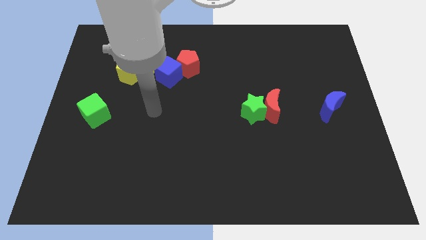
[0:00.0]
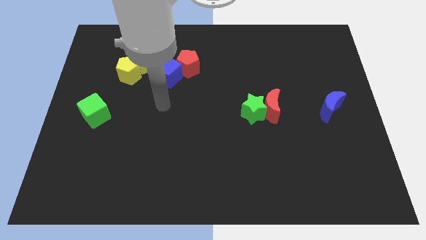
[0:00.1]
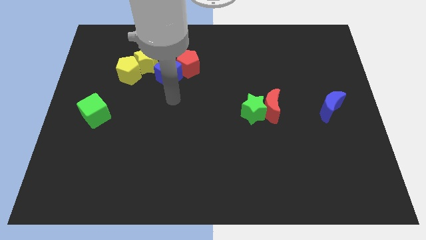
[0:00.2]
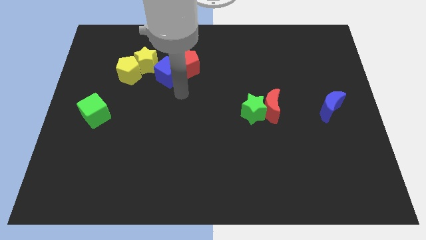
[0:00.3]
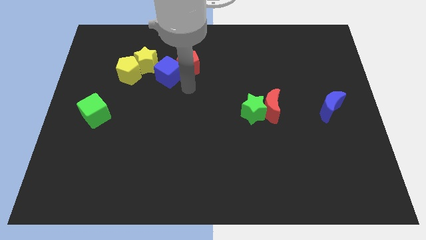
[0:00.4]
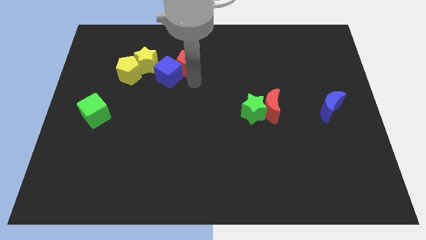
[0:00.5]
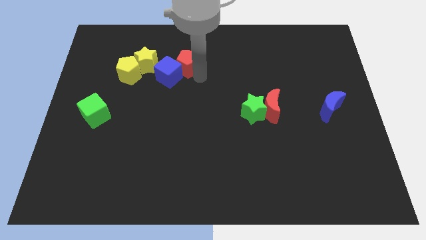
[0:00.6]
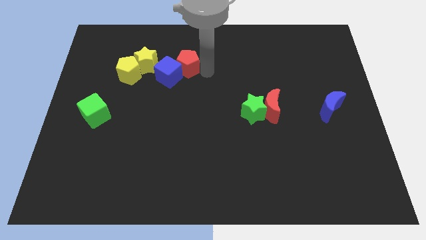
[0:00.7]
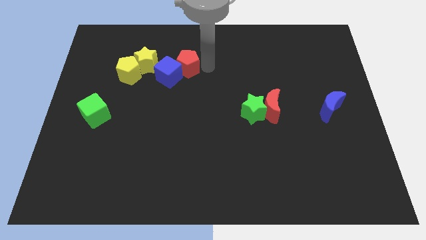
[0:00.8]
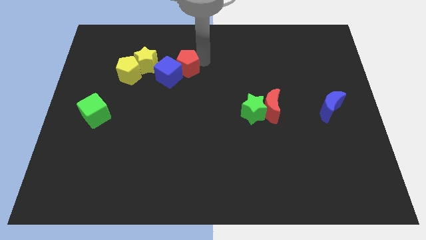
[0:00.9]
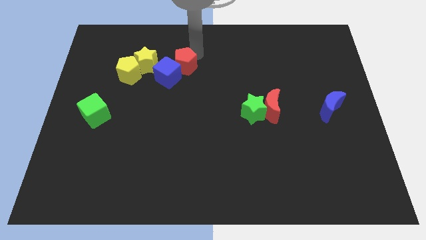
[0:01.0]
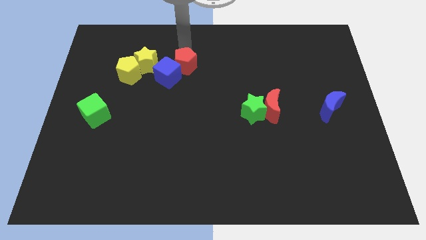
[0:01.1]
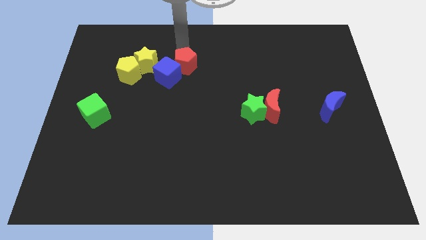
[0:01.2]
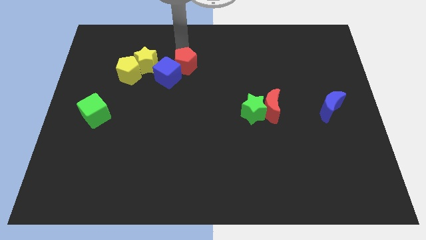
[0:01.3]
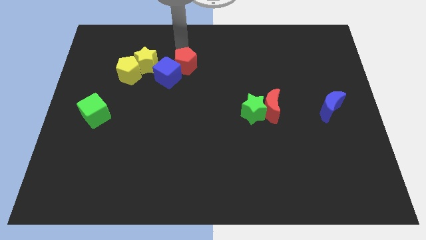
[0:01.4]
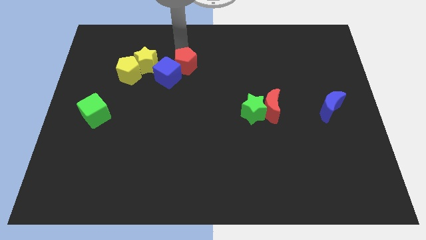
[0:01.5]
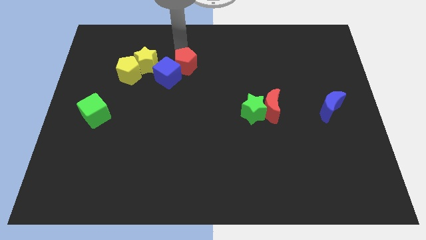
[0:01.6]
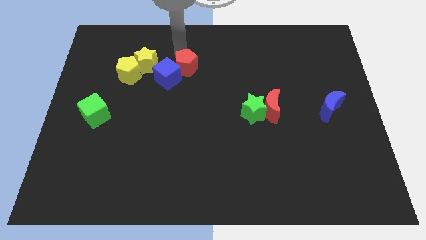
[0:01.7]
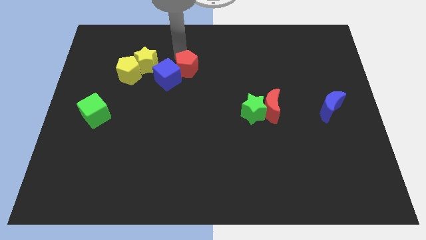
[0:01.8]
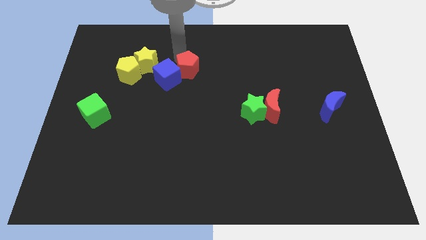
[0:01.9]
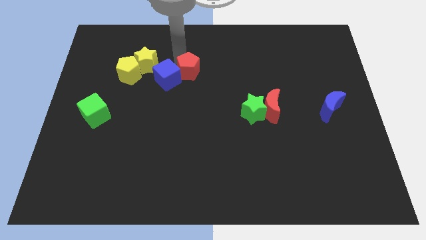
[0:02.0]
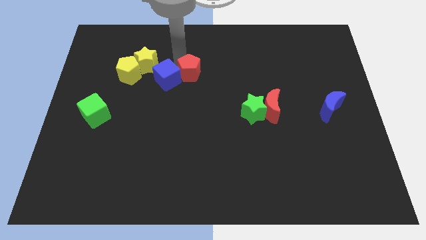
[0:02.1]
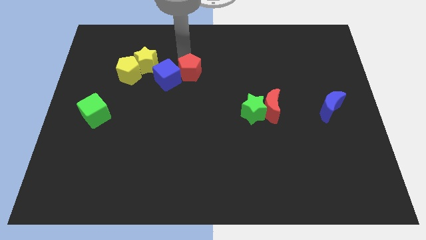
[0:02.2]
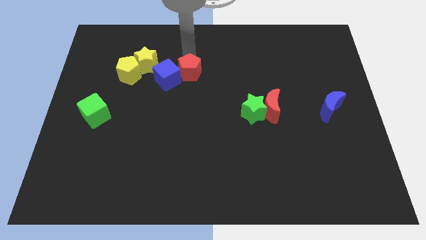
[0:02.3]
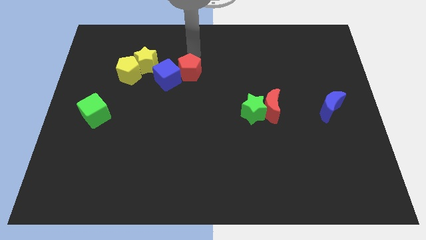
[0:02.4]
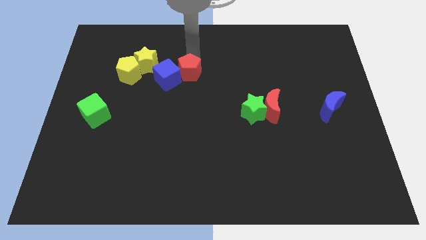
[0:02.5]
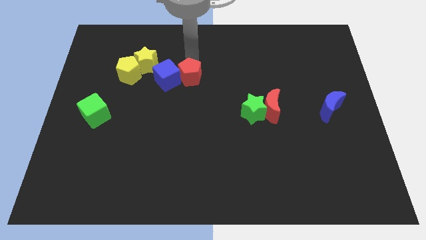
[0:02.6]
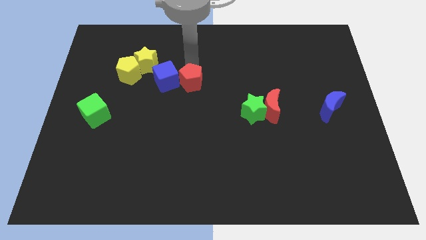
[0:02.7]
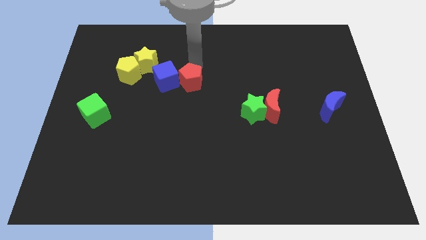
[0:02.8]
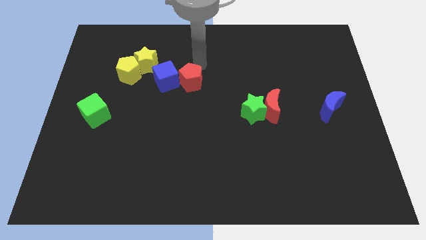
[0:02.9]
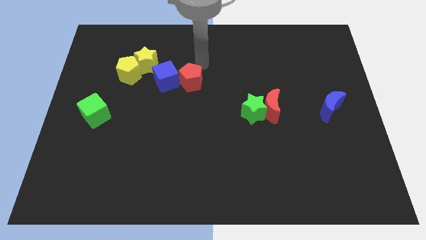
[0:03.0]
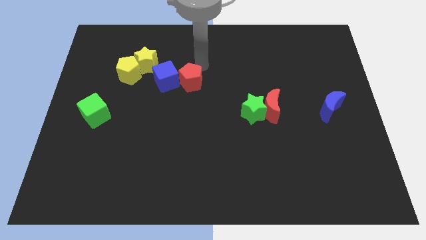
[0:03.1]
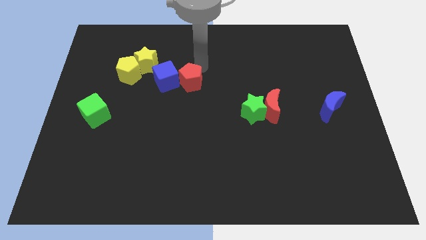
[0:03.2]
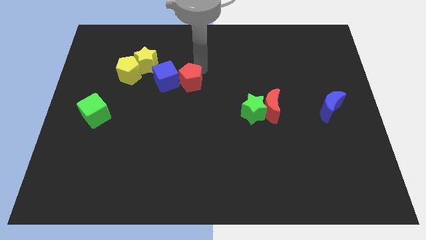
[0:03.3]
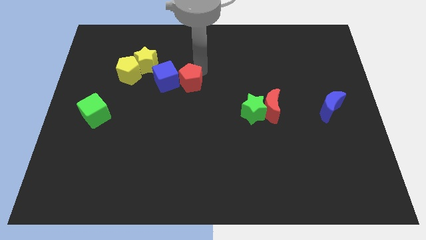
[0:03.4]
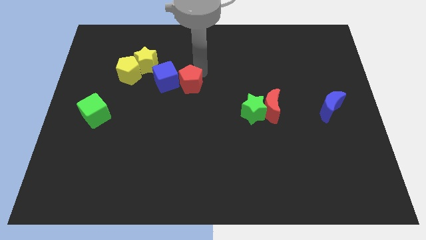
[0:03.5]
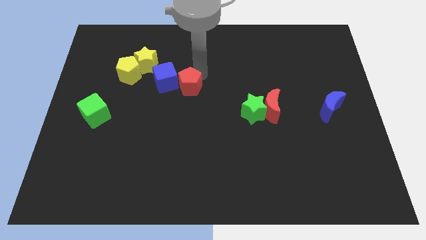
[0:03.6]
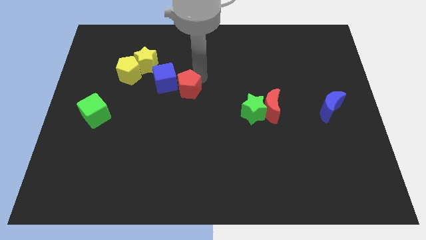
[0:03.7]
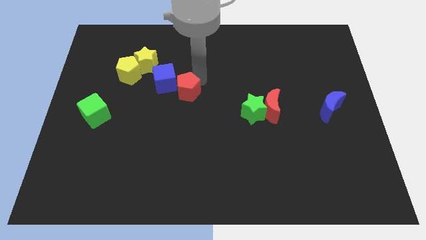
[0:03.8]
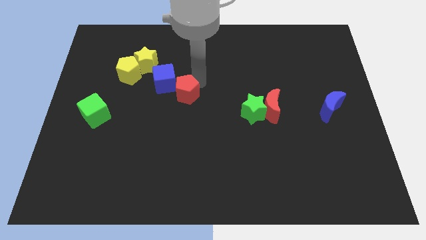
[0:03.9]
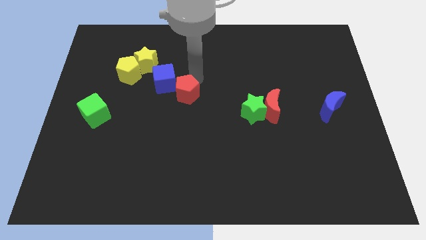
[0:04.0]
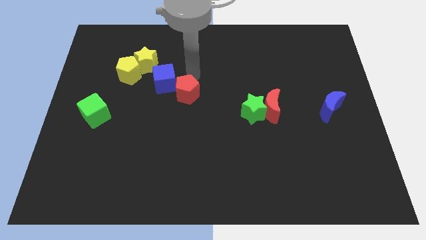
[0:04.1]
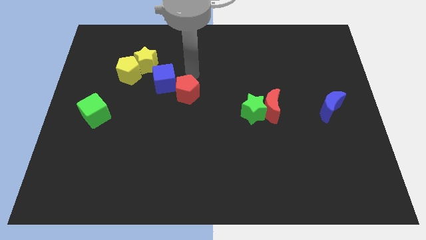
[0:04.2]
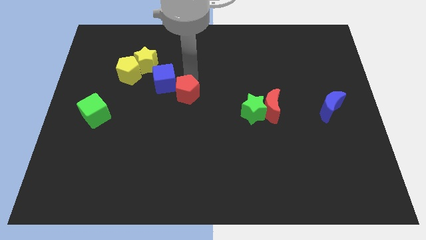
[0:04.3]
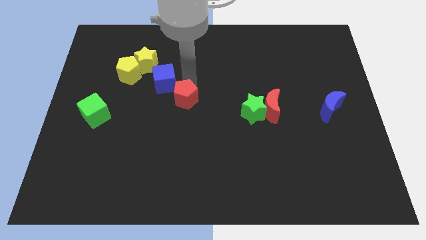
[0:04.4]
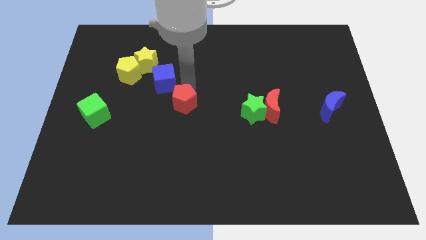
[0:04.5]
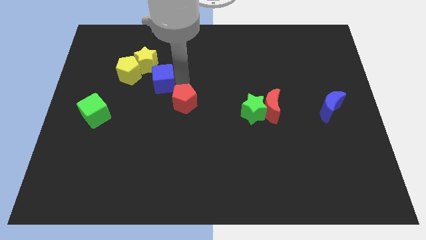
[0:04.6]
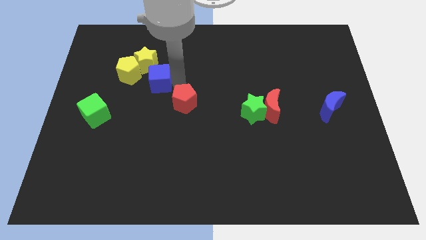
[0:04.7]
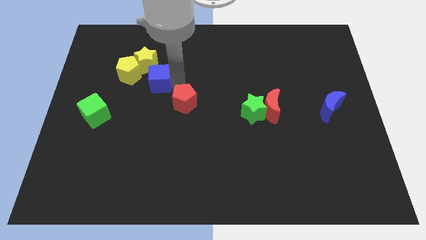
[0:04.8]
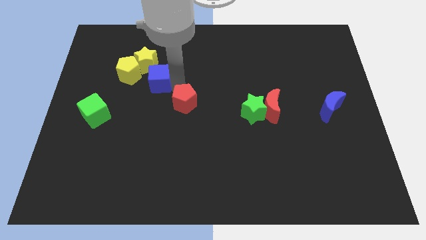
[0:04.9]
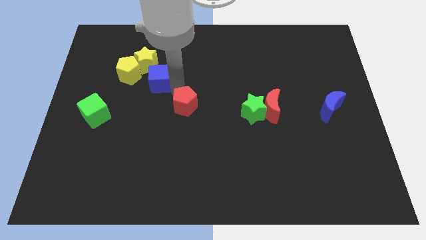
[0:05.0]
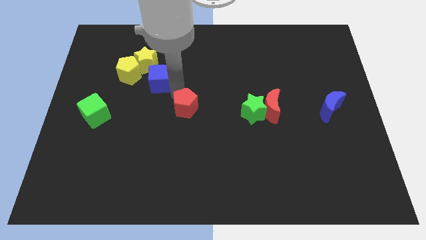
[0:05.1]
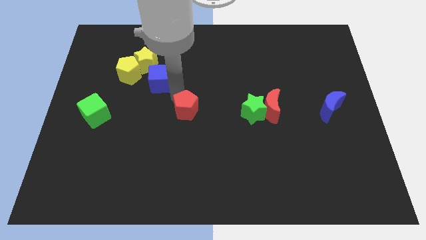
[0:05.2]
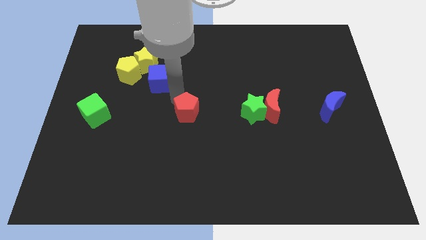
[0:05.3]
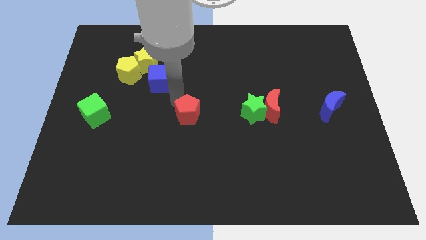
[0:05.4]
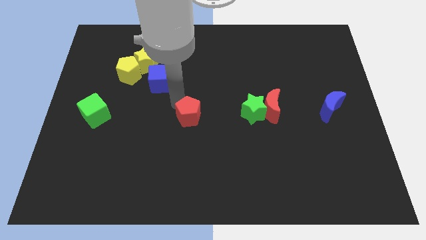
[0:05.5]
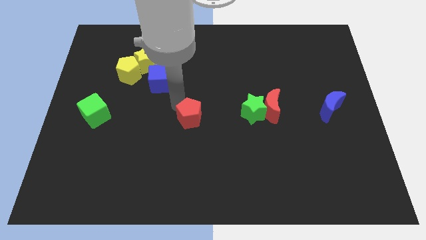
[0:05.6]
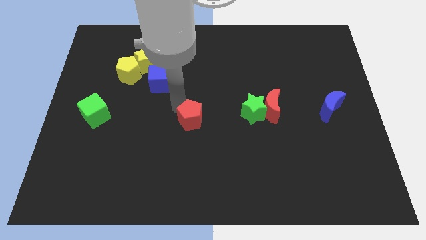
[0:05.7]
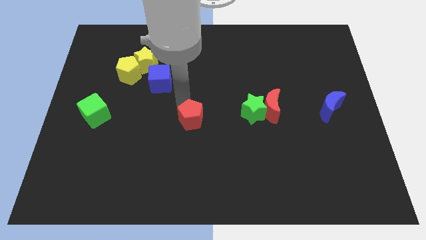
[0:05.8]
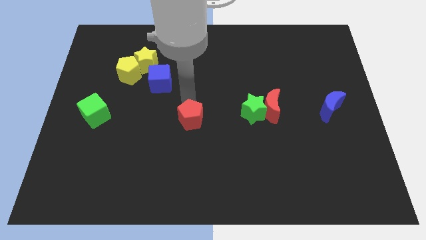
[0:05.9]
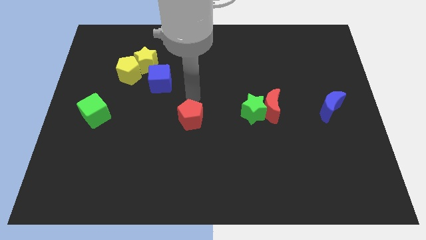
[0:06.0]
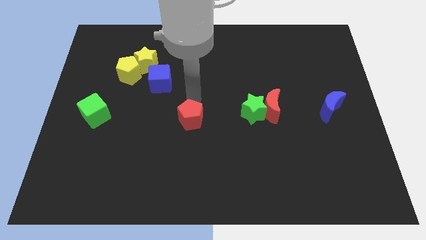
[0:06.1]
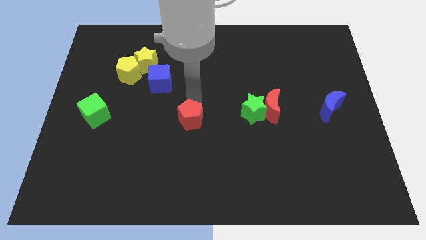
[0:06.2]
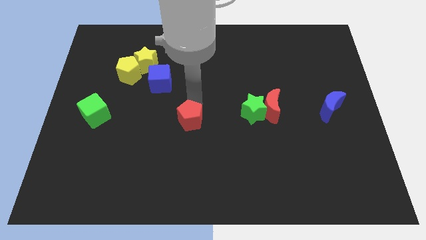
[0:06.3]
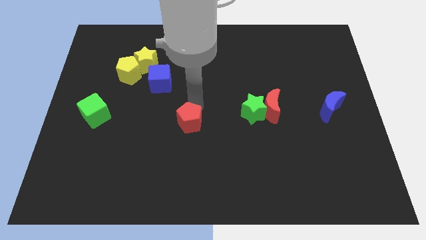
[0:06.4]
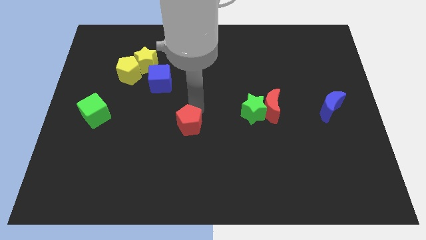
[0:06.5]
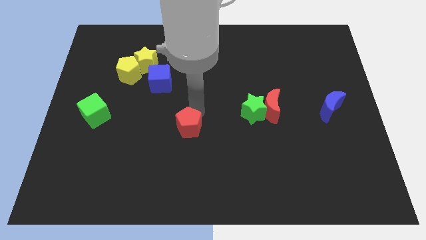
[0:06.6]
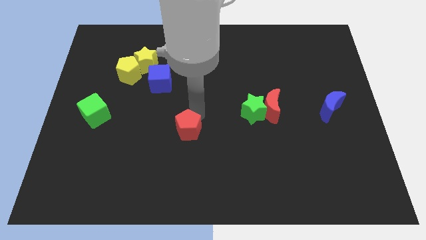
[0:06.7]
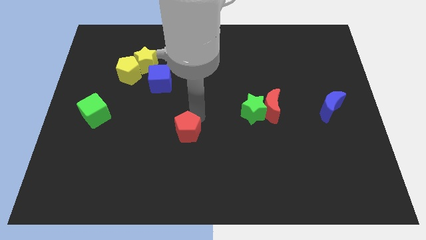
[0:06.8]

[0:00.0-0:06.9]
slide the red pentagon down

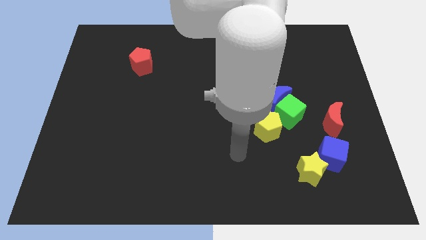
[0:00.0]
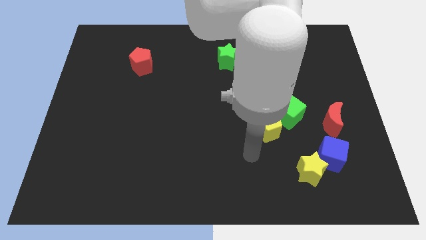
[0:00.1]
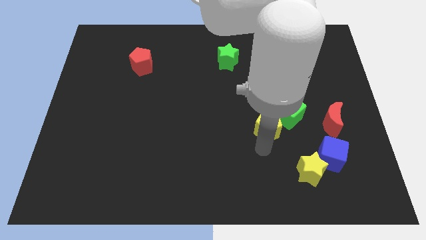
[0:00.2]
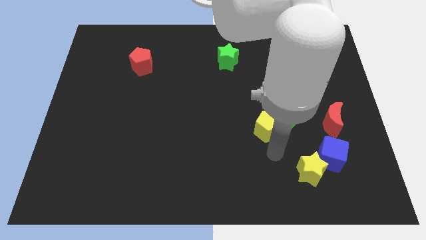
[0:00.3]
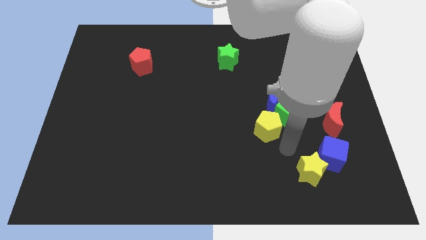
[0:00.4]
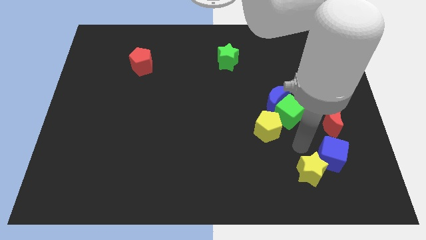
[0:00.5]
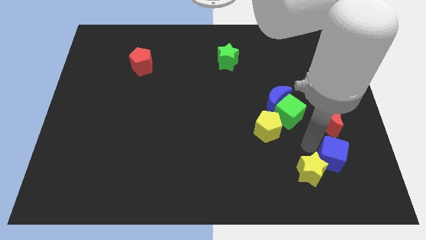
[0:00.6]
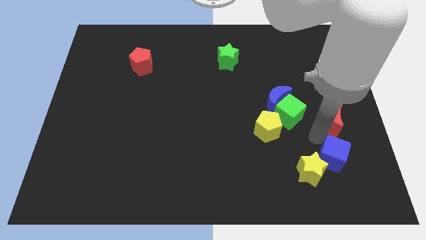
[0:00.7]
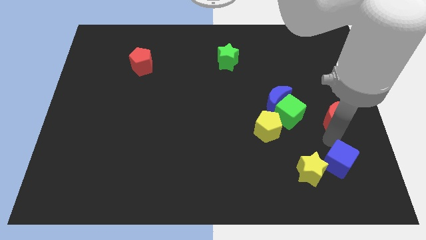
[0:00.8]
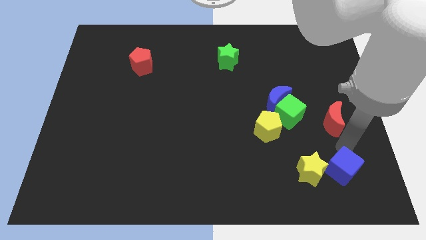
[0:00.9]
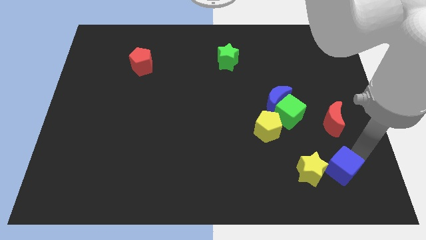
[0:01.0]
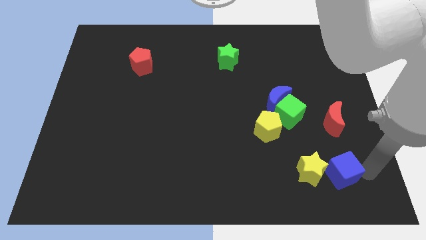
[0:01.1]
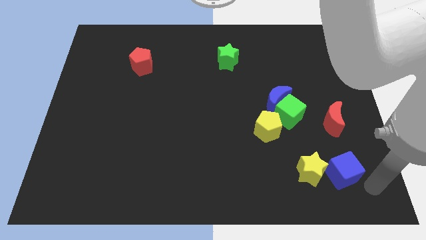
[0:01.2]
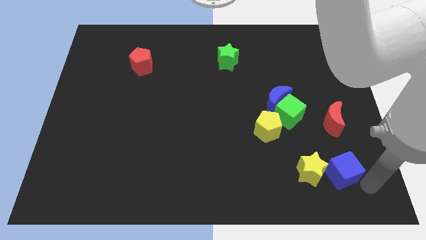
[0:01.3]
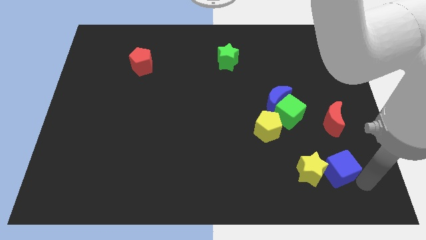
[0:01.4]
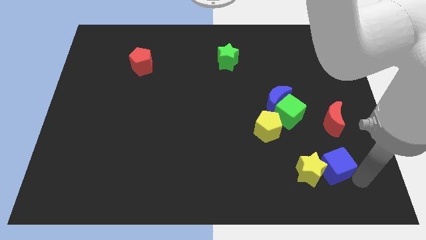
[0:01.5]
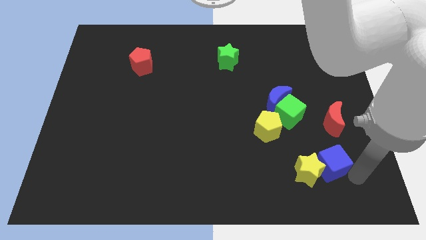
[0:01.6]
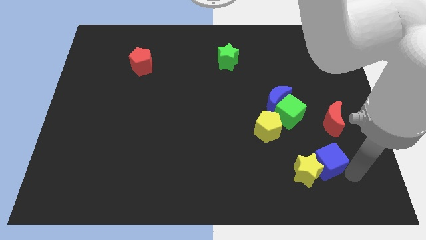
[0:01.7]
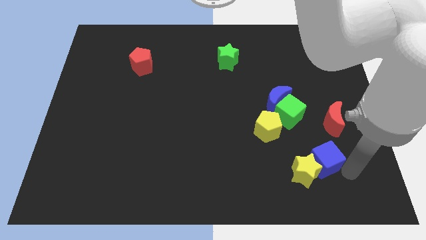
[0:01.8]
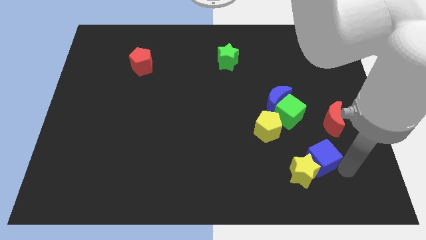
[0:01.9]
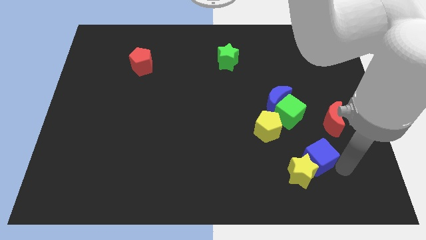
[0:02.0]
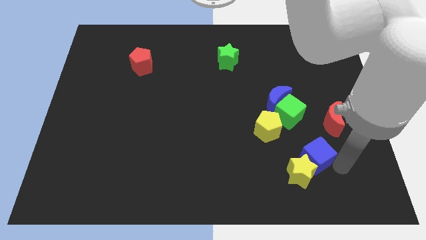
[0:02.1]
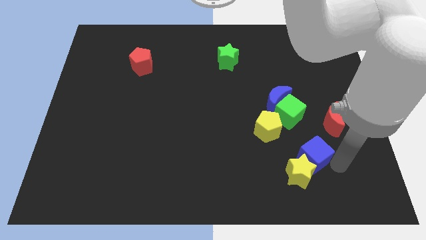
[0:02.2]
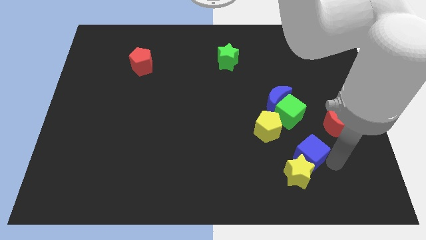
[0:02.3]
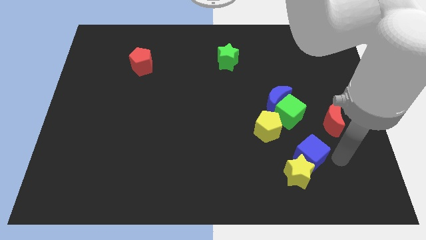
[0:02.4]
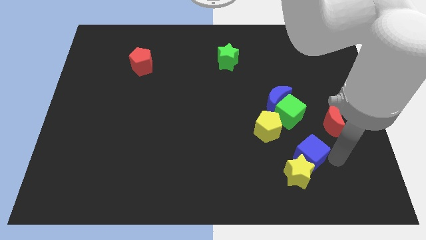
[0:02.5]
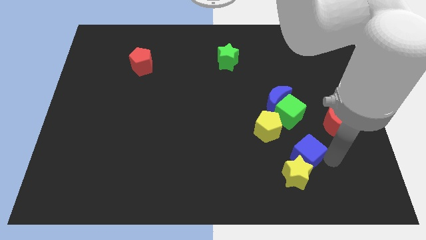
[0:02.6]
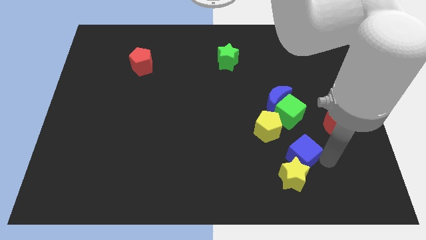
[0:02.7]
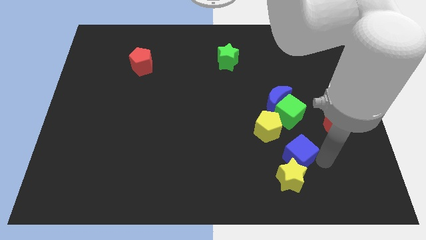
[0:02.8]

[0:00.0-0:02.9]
move the blue cube a bit to the left
